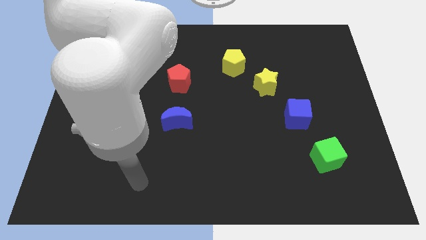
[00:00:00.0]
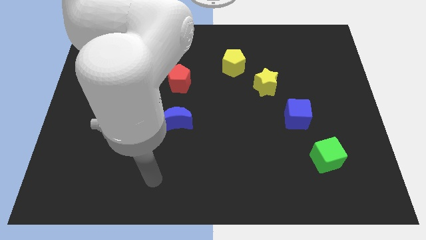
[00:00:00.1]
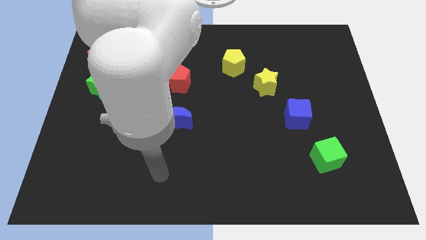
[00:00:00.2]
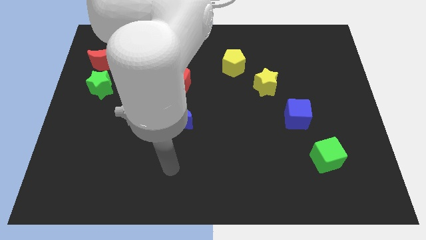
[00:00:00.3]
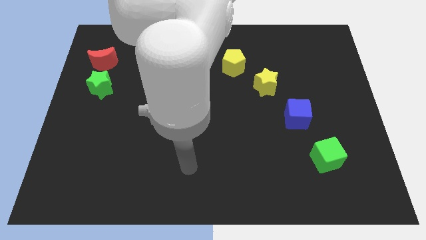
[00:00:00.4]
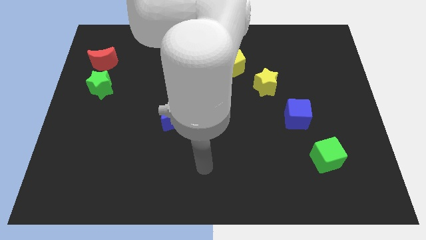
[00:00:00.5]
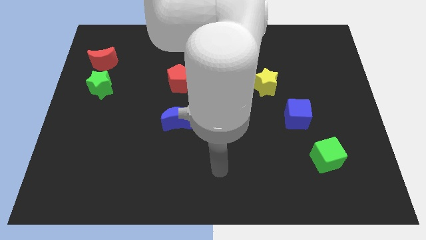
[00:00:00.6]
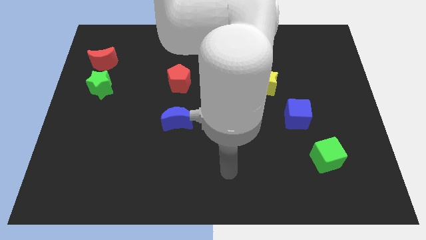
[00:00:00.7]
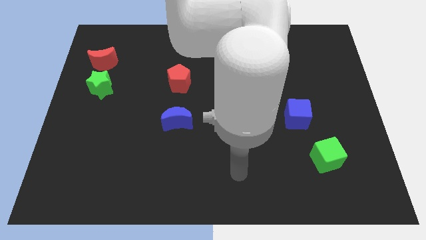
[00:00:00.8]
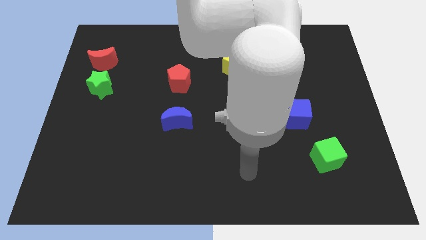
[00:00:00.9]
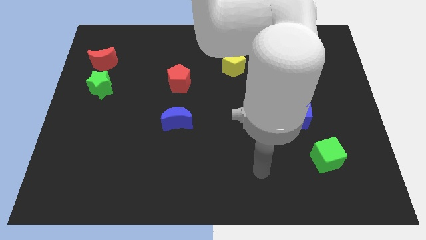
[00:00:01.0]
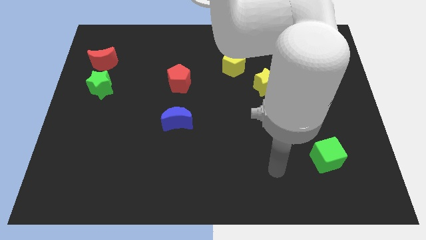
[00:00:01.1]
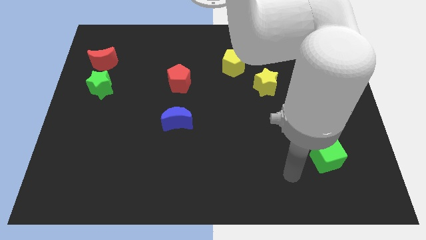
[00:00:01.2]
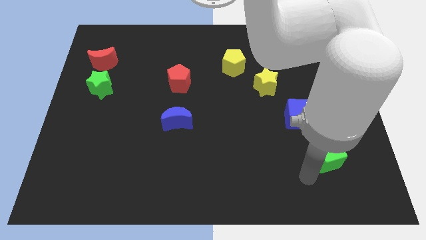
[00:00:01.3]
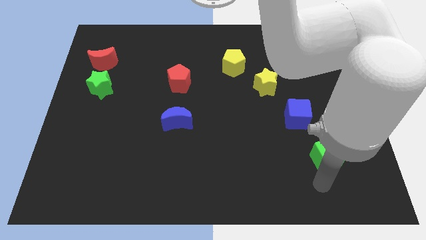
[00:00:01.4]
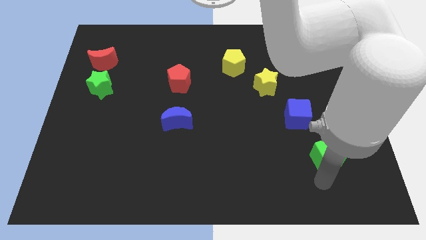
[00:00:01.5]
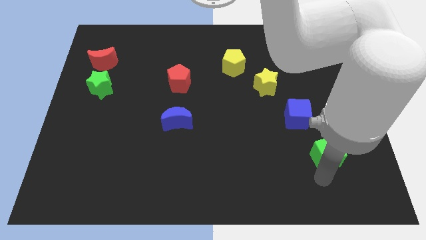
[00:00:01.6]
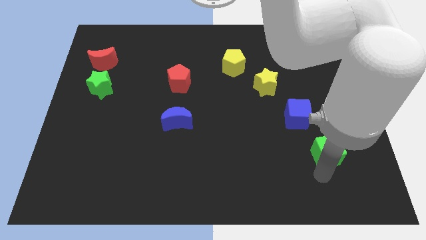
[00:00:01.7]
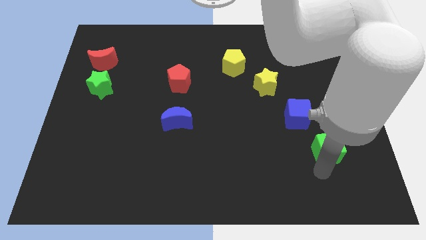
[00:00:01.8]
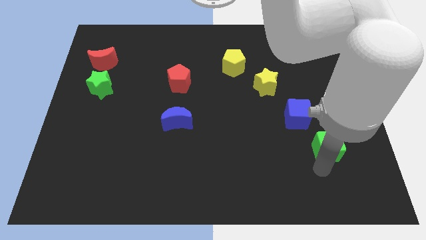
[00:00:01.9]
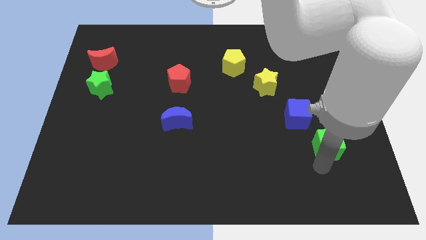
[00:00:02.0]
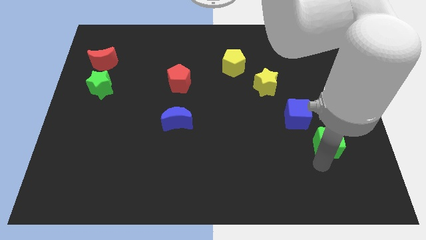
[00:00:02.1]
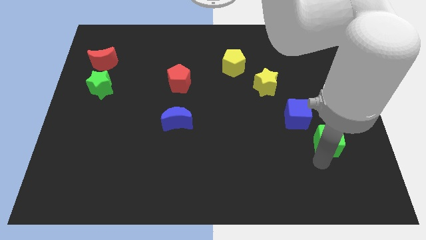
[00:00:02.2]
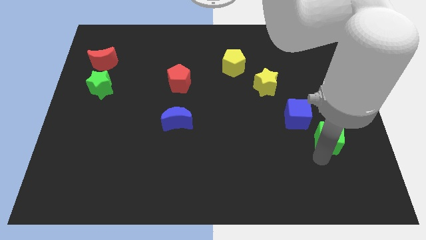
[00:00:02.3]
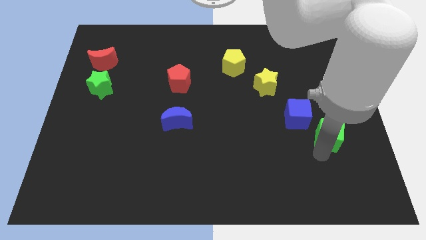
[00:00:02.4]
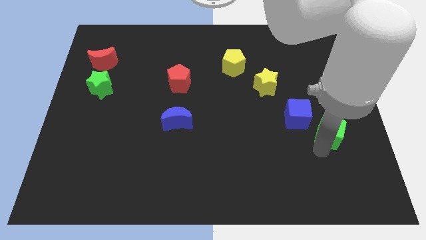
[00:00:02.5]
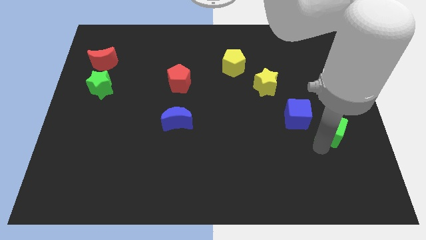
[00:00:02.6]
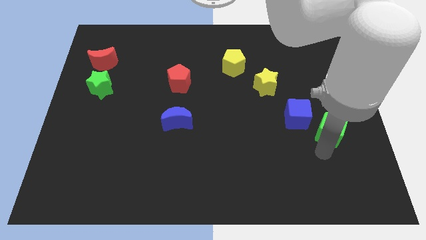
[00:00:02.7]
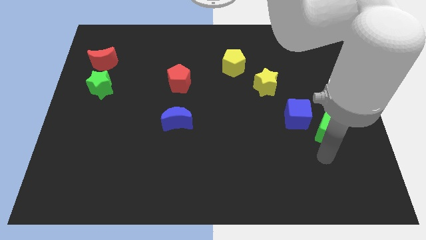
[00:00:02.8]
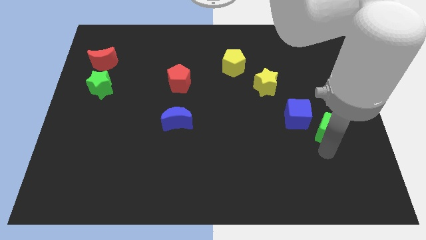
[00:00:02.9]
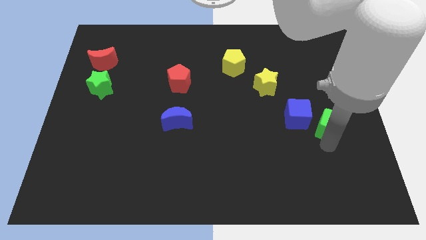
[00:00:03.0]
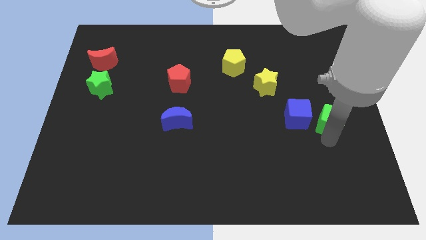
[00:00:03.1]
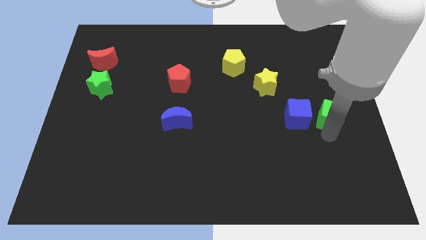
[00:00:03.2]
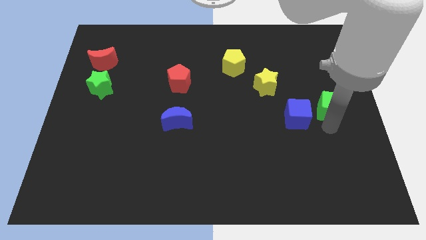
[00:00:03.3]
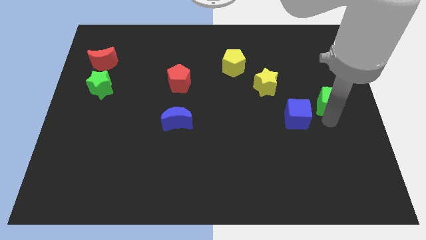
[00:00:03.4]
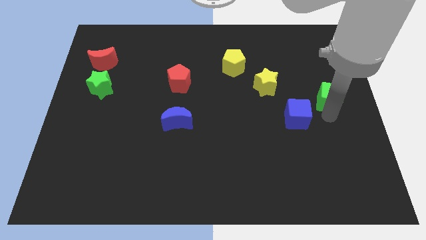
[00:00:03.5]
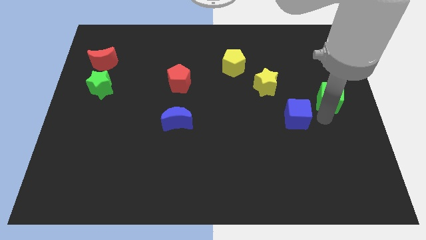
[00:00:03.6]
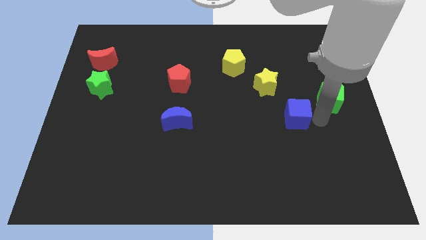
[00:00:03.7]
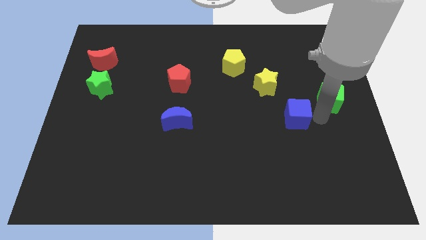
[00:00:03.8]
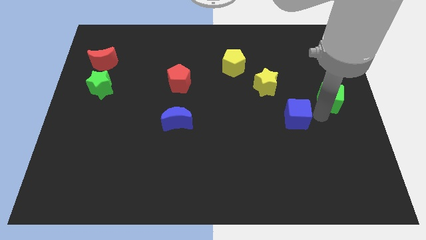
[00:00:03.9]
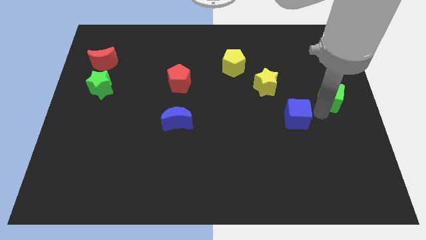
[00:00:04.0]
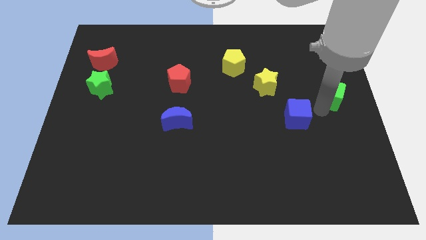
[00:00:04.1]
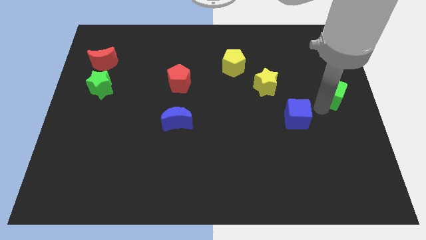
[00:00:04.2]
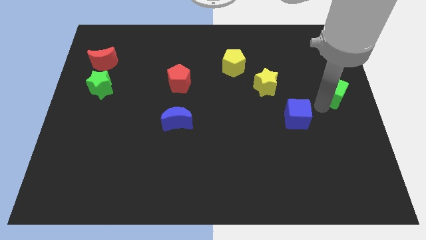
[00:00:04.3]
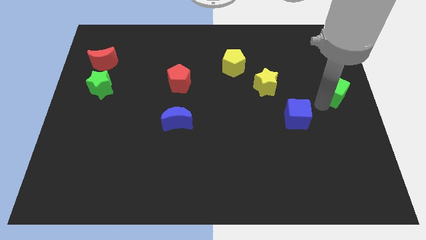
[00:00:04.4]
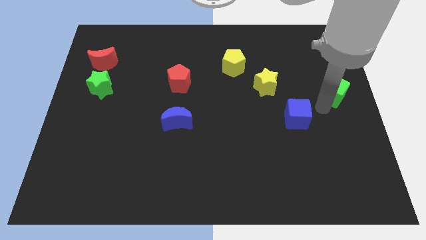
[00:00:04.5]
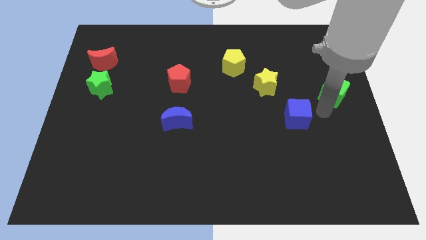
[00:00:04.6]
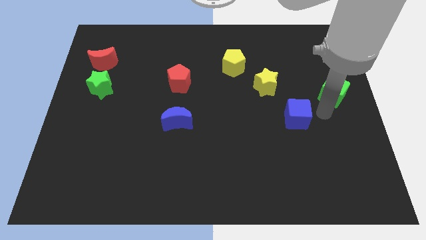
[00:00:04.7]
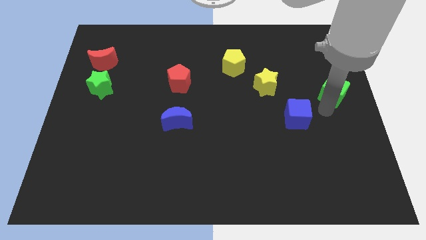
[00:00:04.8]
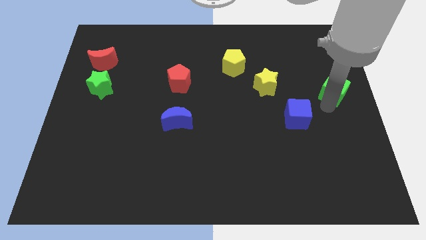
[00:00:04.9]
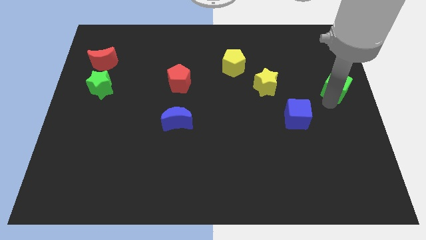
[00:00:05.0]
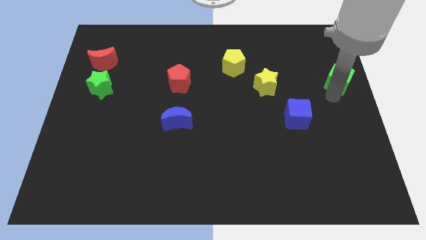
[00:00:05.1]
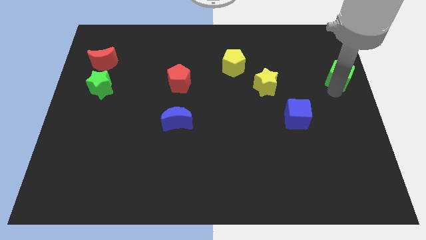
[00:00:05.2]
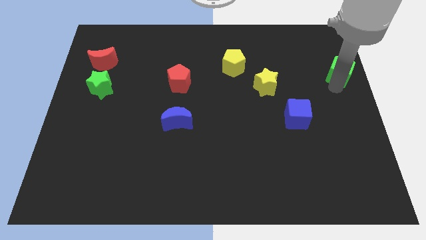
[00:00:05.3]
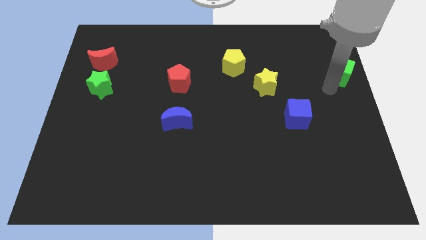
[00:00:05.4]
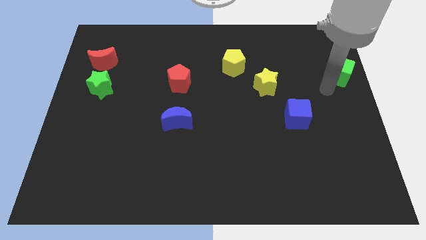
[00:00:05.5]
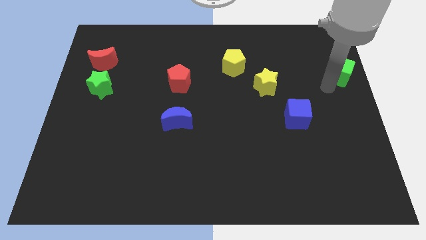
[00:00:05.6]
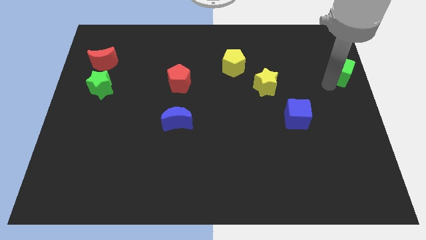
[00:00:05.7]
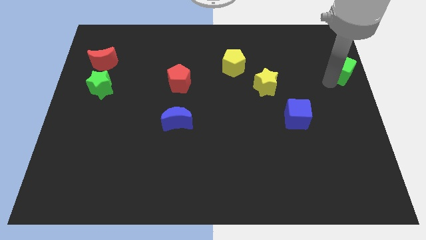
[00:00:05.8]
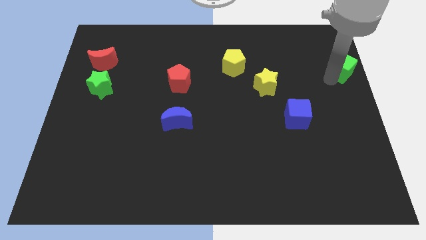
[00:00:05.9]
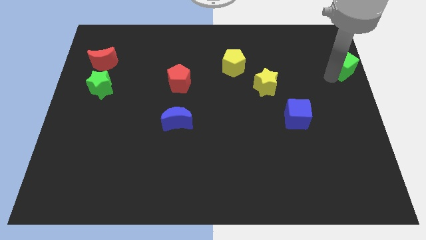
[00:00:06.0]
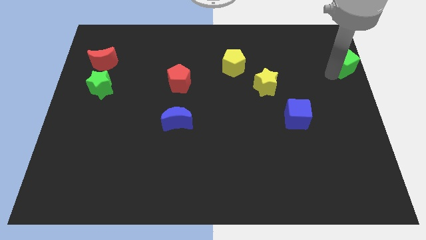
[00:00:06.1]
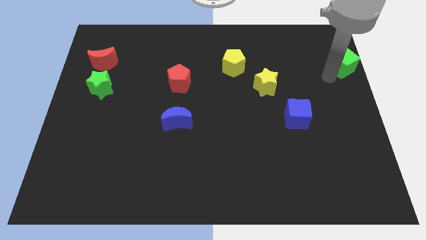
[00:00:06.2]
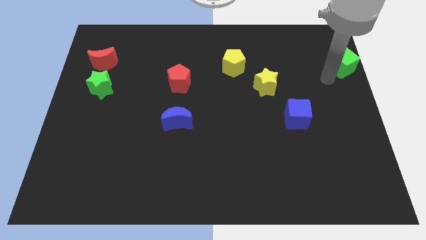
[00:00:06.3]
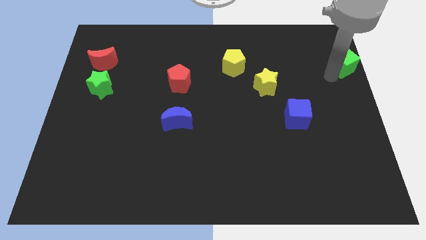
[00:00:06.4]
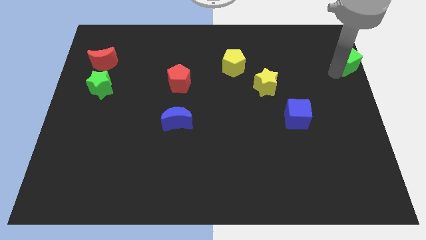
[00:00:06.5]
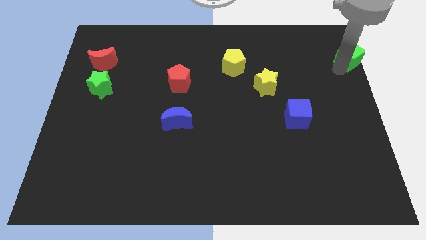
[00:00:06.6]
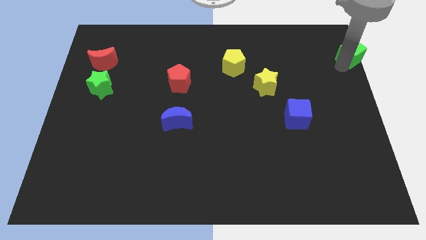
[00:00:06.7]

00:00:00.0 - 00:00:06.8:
move the green cube to the upper right corner
